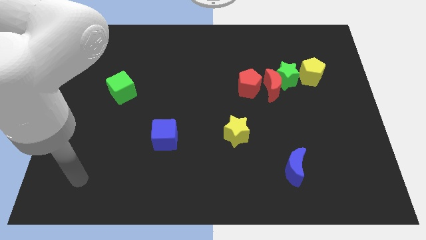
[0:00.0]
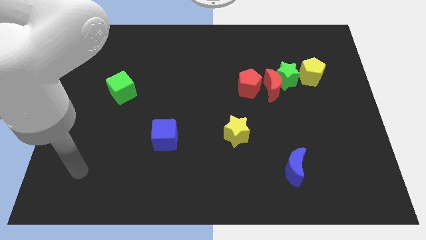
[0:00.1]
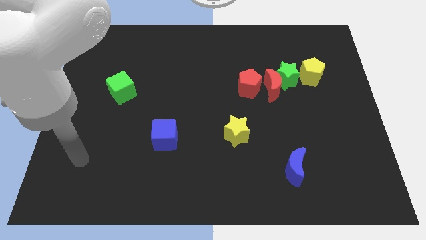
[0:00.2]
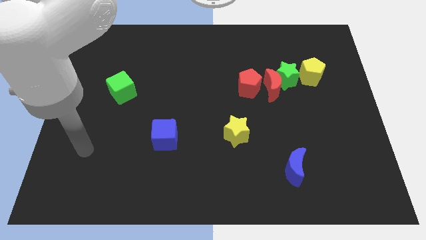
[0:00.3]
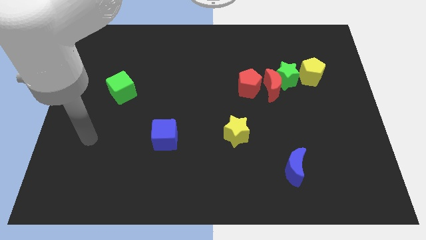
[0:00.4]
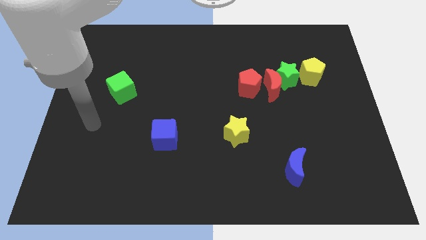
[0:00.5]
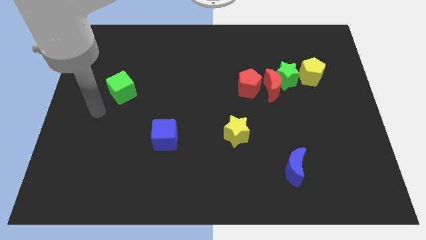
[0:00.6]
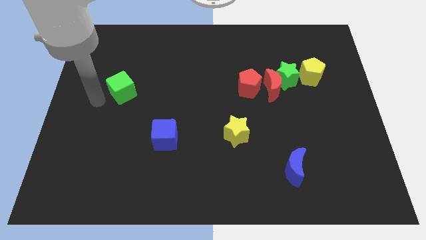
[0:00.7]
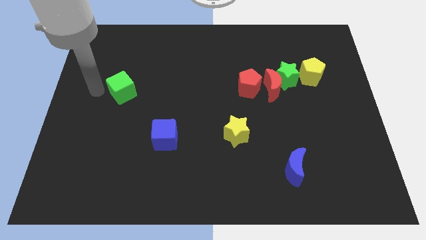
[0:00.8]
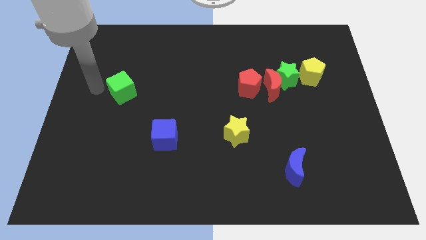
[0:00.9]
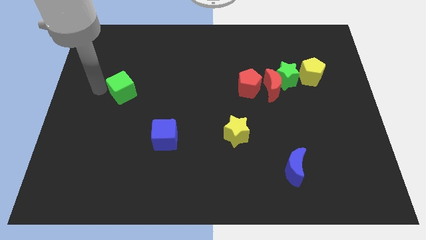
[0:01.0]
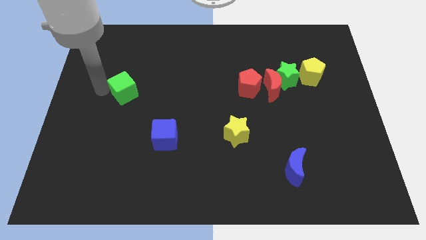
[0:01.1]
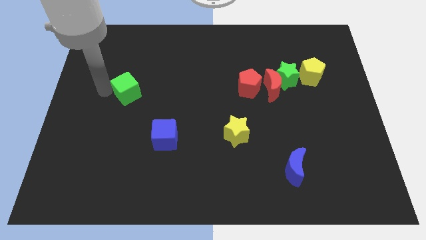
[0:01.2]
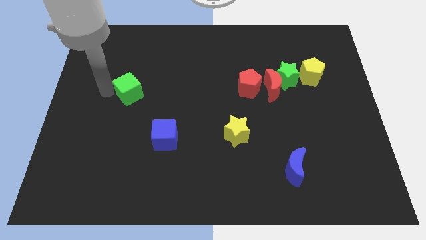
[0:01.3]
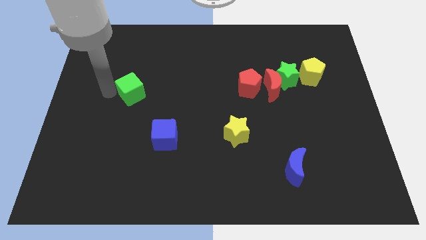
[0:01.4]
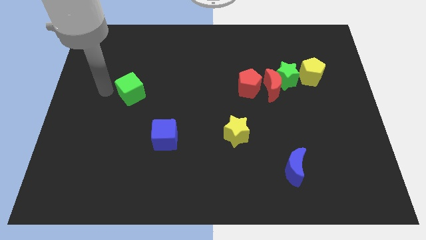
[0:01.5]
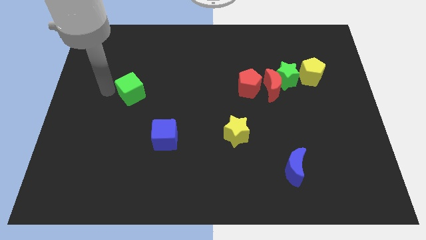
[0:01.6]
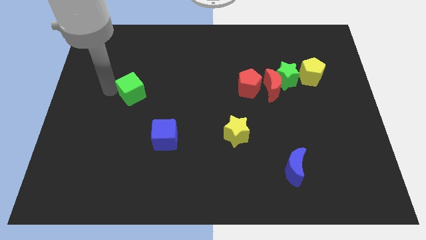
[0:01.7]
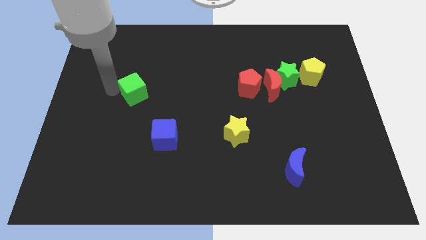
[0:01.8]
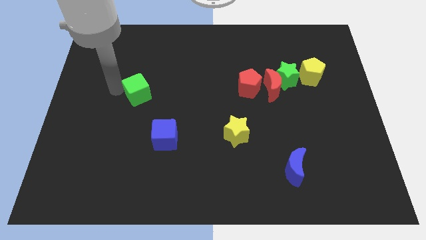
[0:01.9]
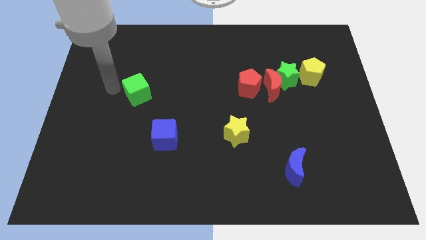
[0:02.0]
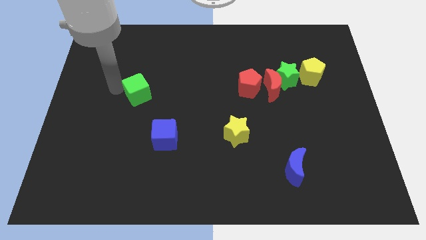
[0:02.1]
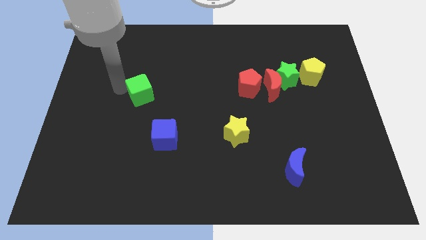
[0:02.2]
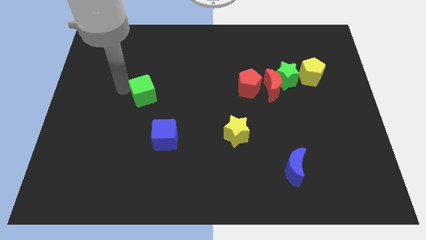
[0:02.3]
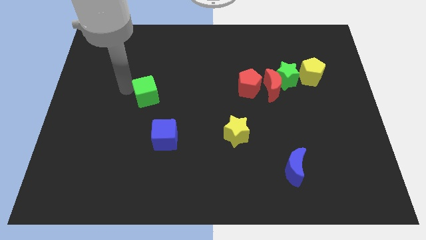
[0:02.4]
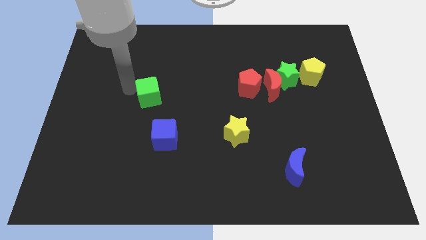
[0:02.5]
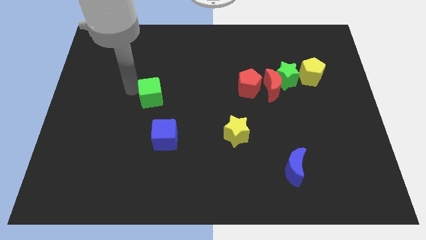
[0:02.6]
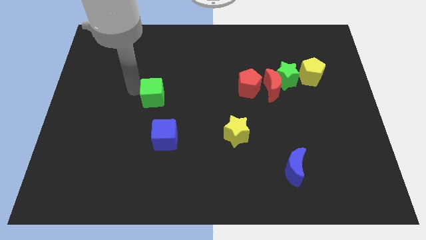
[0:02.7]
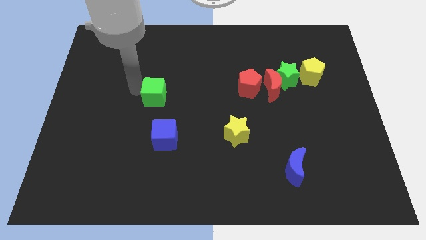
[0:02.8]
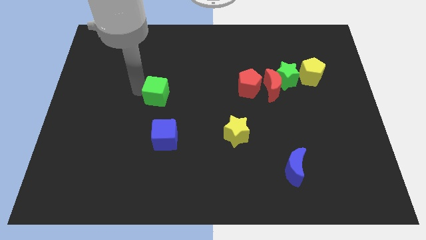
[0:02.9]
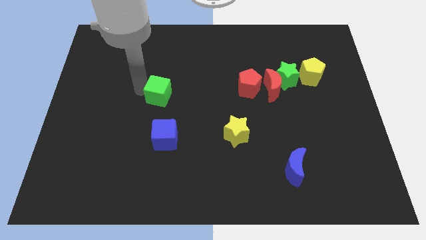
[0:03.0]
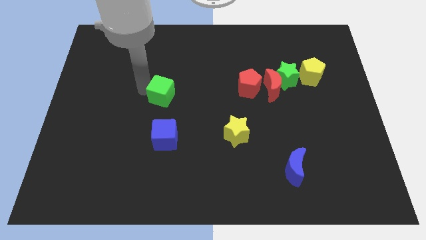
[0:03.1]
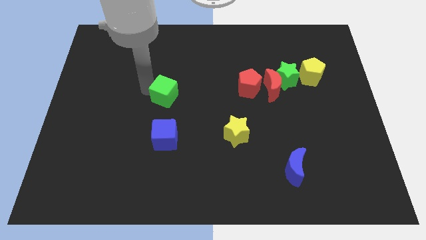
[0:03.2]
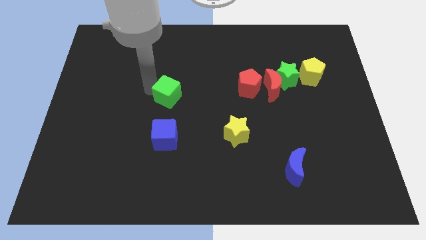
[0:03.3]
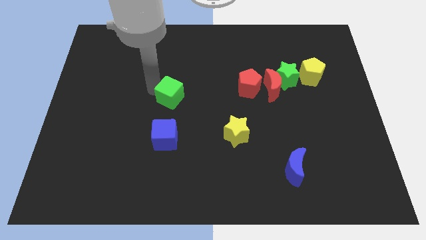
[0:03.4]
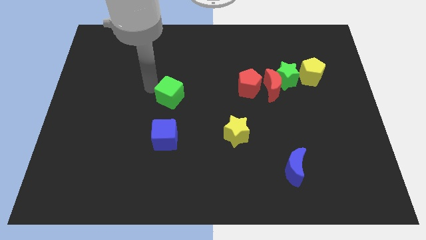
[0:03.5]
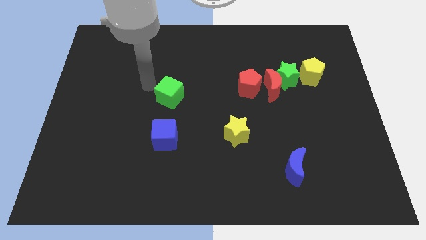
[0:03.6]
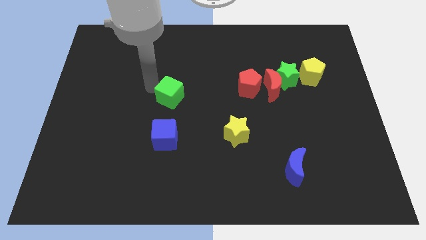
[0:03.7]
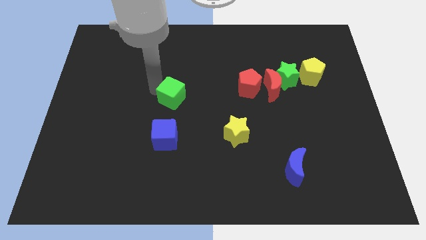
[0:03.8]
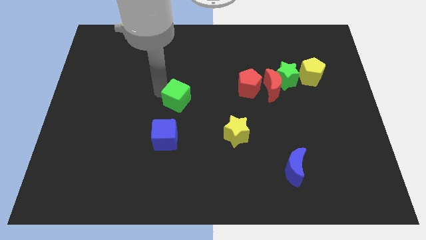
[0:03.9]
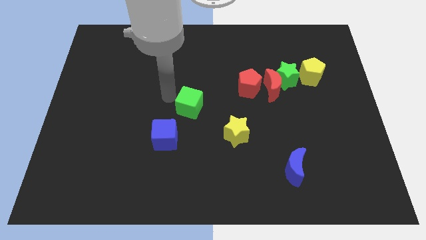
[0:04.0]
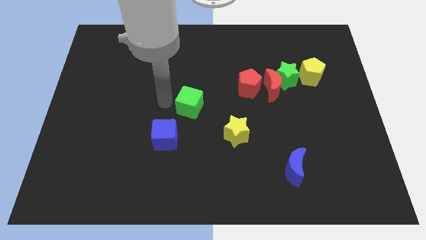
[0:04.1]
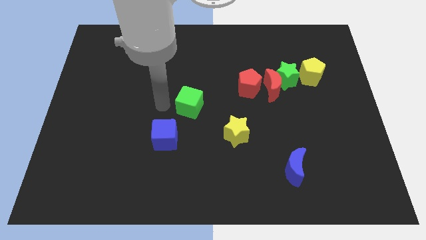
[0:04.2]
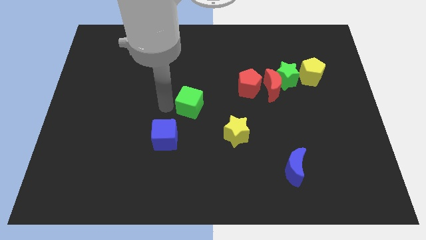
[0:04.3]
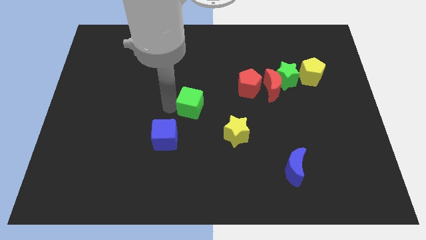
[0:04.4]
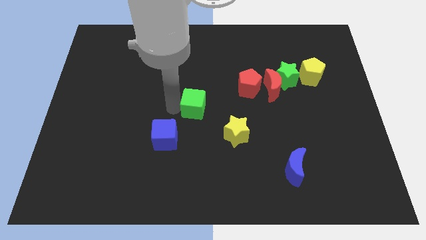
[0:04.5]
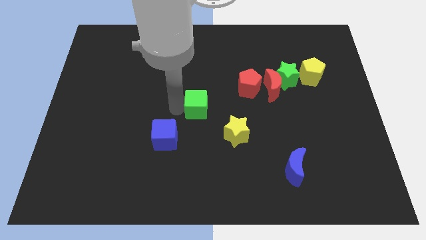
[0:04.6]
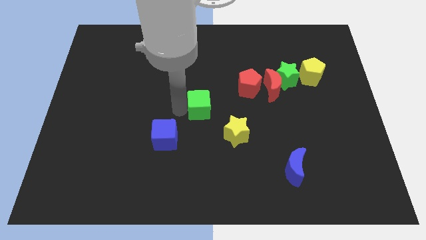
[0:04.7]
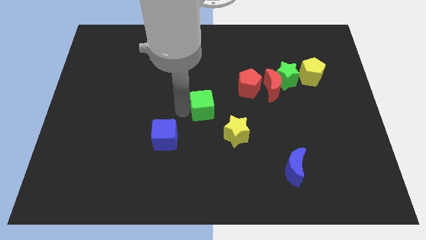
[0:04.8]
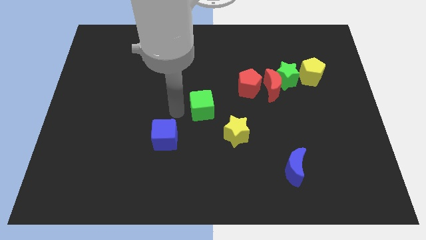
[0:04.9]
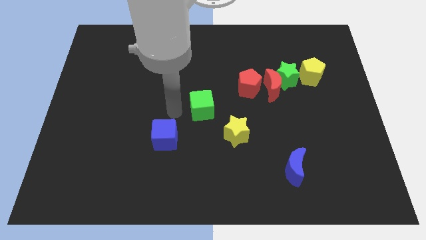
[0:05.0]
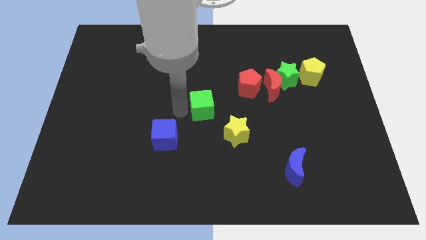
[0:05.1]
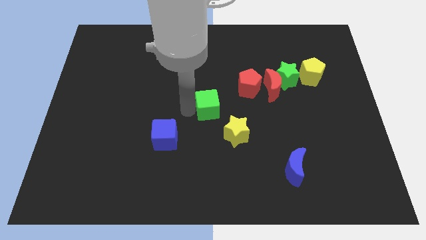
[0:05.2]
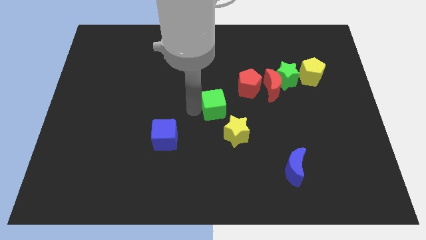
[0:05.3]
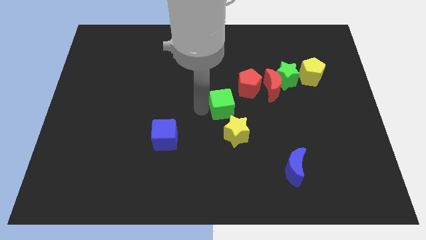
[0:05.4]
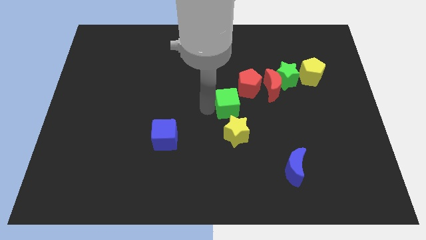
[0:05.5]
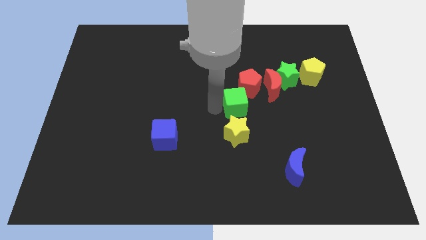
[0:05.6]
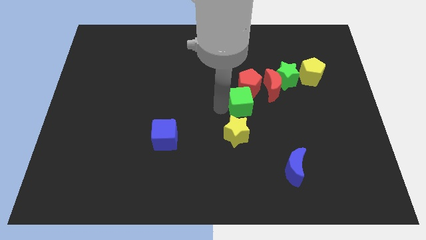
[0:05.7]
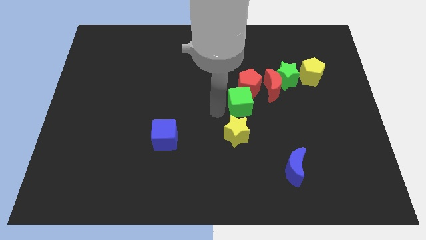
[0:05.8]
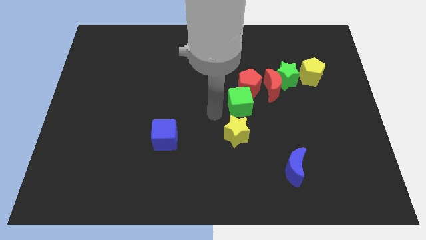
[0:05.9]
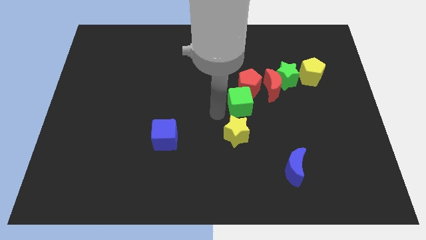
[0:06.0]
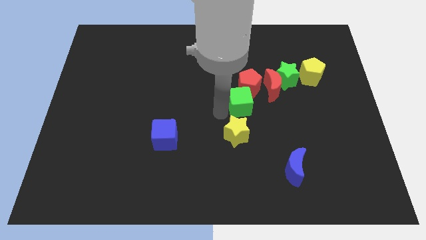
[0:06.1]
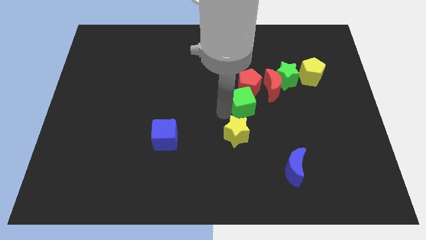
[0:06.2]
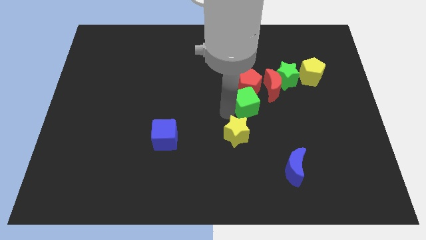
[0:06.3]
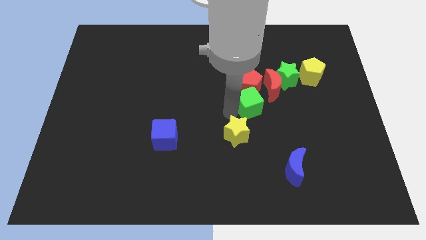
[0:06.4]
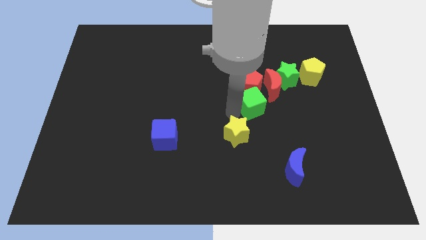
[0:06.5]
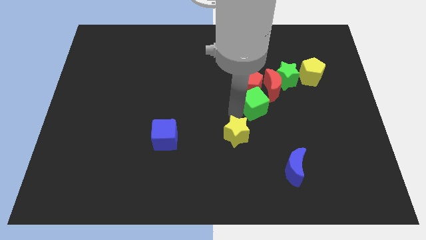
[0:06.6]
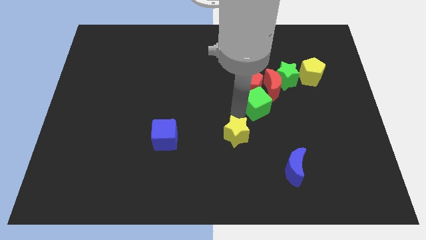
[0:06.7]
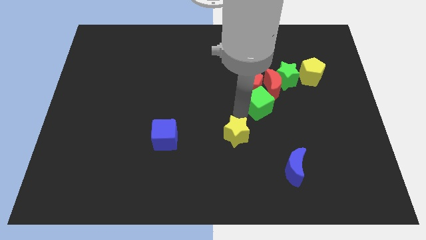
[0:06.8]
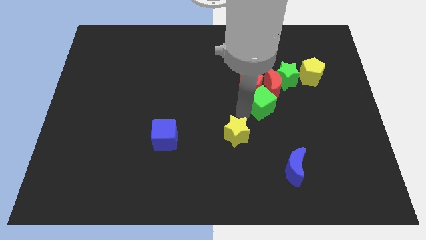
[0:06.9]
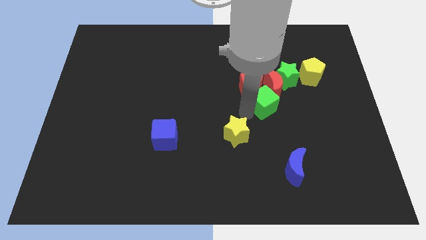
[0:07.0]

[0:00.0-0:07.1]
push the green cube to the red moon

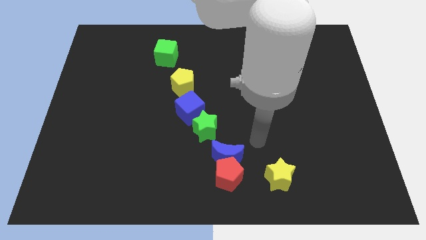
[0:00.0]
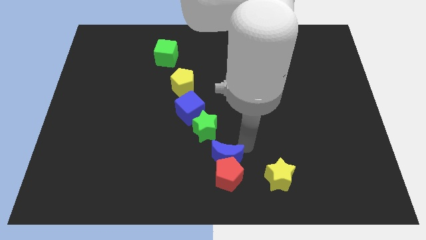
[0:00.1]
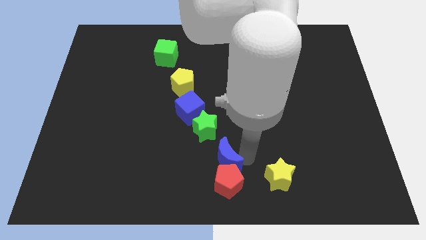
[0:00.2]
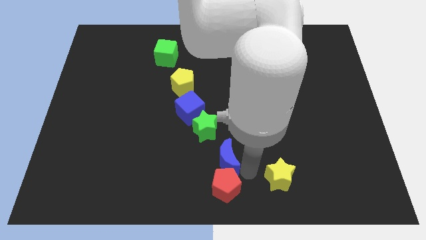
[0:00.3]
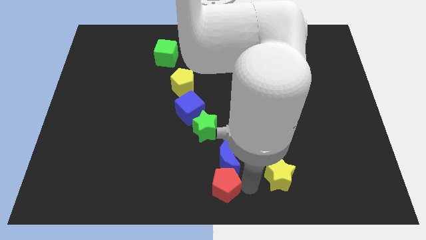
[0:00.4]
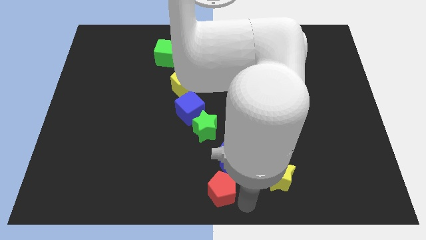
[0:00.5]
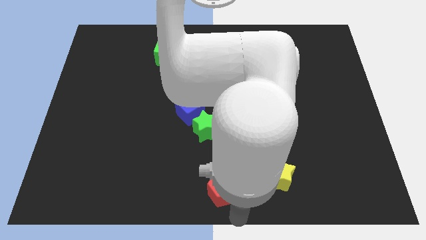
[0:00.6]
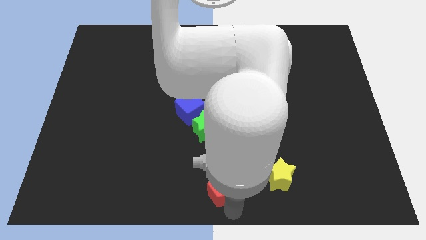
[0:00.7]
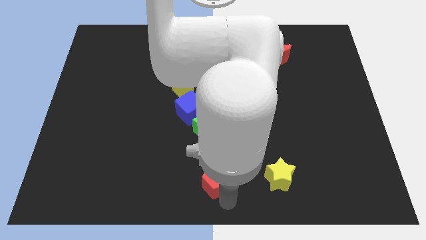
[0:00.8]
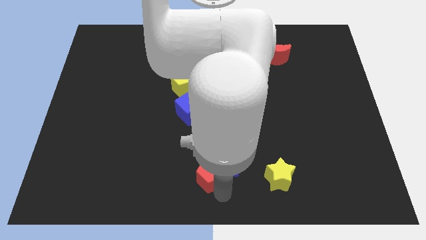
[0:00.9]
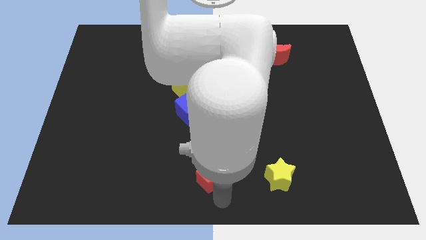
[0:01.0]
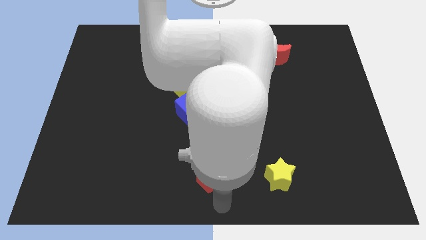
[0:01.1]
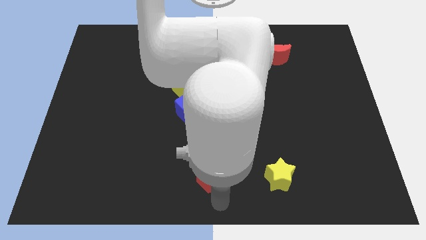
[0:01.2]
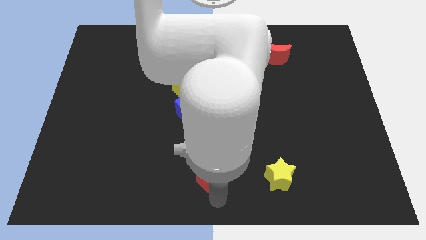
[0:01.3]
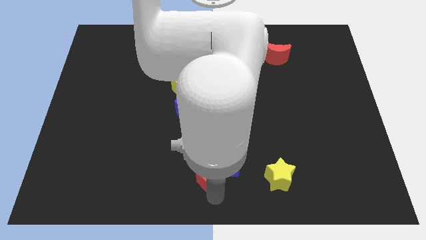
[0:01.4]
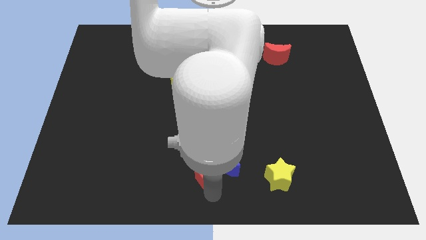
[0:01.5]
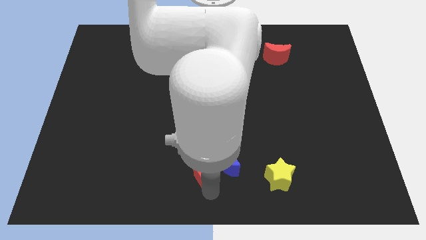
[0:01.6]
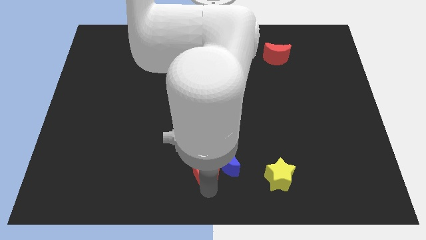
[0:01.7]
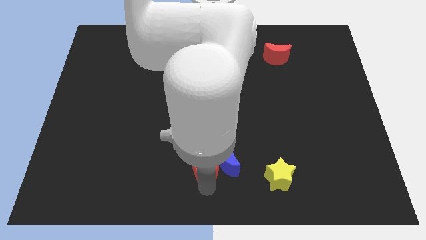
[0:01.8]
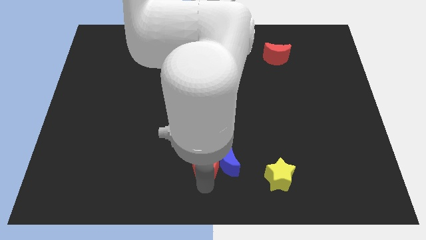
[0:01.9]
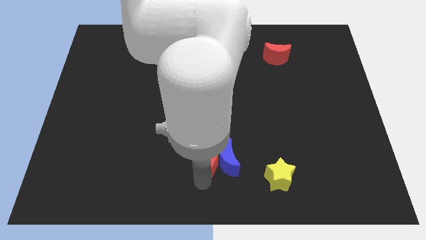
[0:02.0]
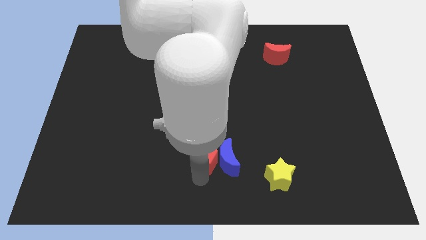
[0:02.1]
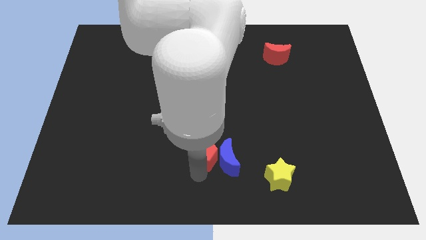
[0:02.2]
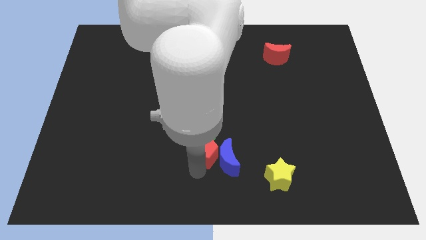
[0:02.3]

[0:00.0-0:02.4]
move the red pentagon towards the green star
